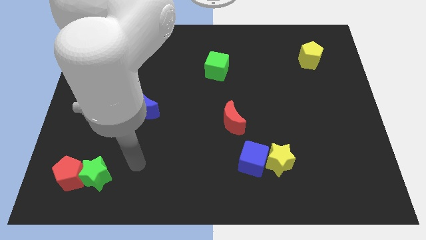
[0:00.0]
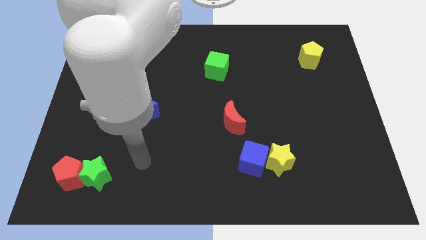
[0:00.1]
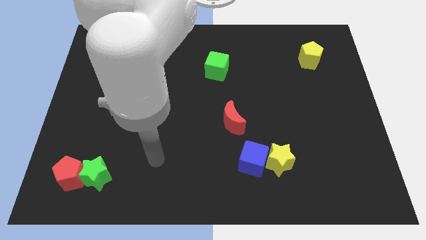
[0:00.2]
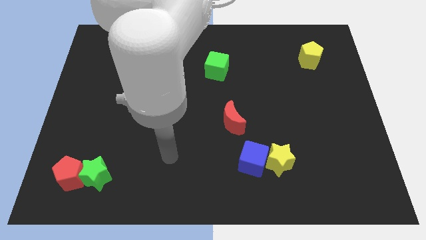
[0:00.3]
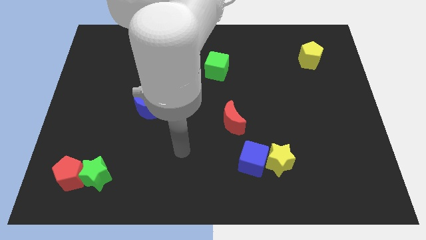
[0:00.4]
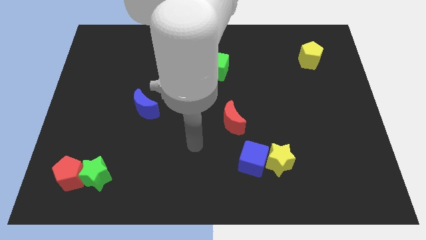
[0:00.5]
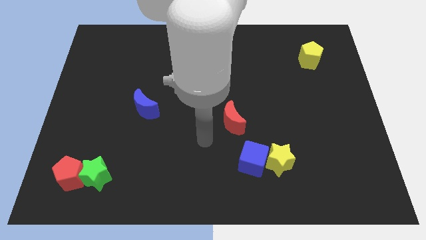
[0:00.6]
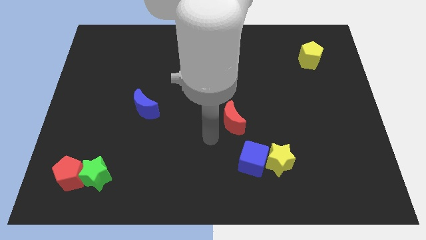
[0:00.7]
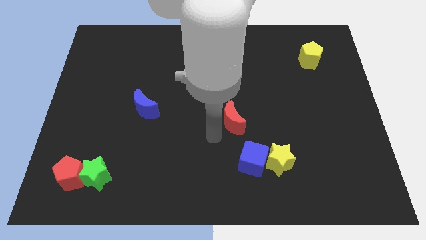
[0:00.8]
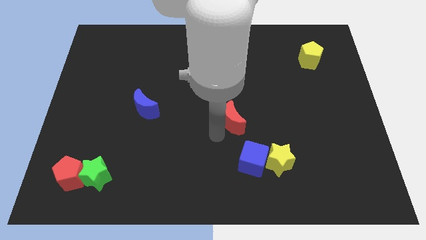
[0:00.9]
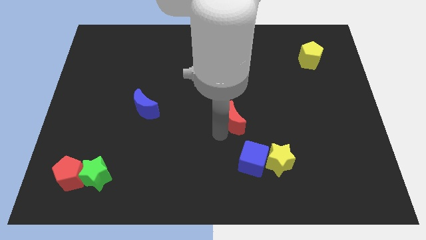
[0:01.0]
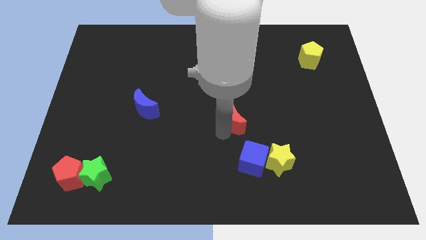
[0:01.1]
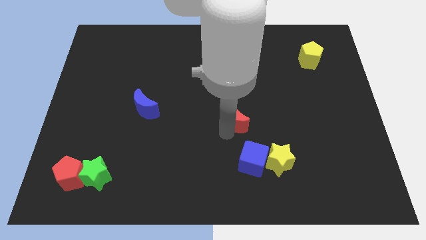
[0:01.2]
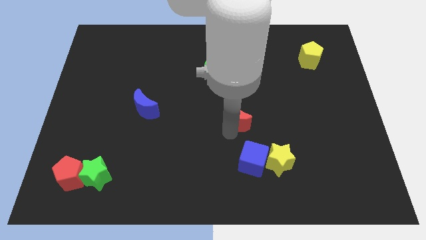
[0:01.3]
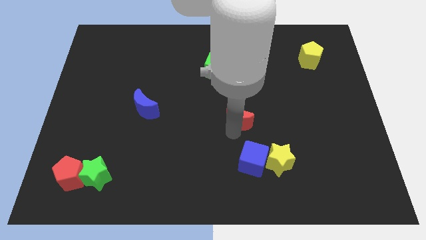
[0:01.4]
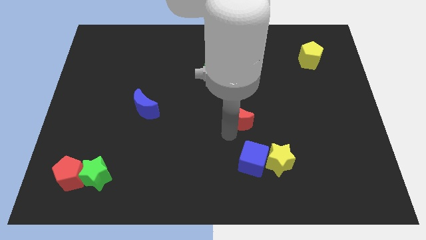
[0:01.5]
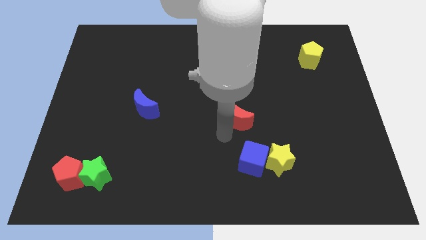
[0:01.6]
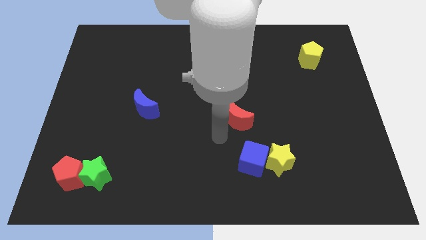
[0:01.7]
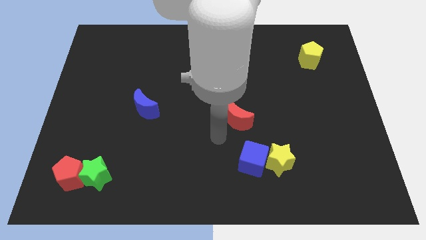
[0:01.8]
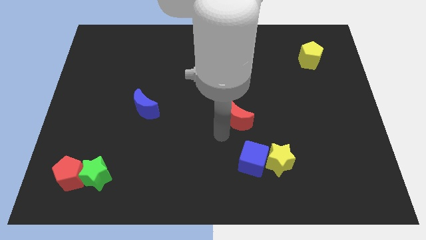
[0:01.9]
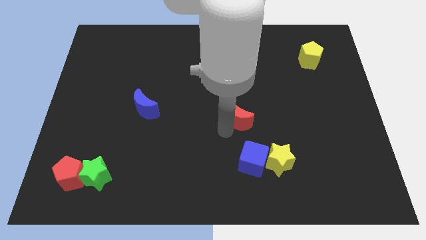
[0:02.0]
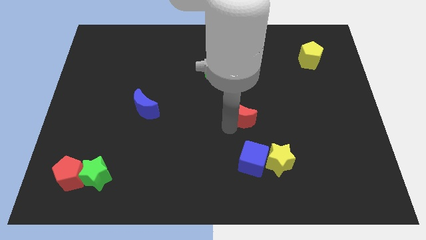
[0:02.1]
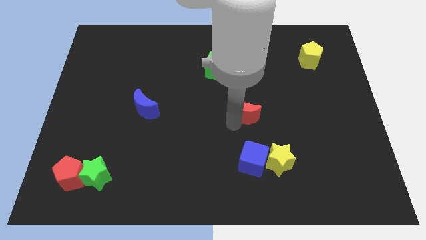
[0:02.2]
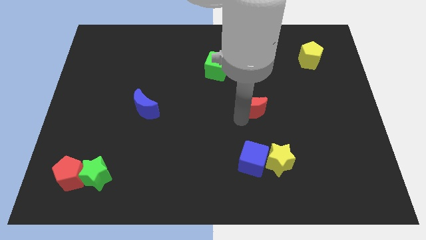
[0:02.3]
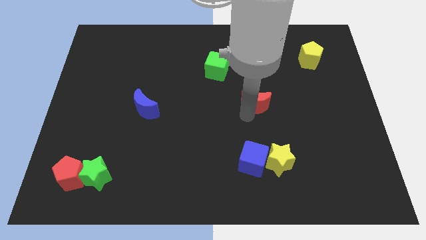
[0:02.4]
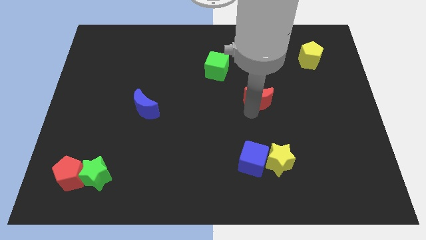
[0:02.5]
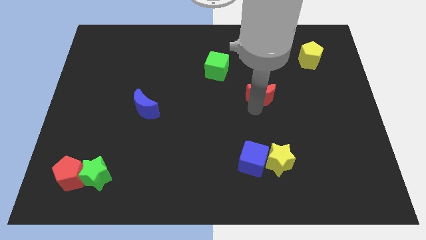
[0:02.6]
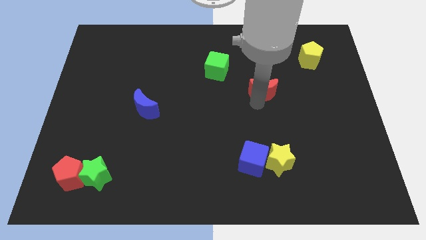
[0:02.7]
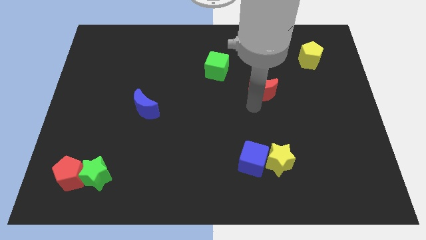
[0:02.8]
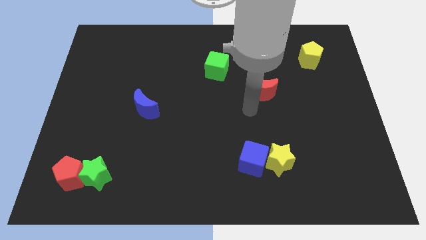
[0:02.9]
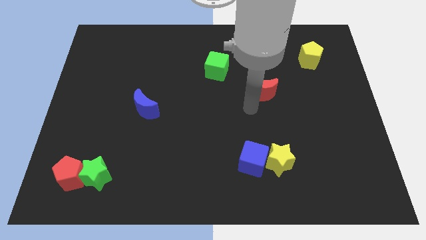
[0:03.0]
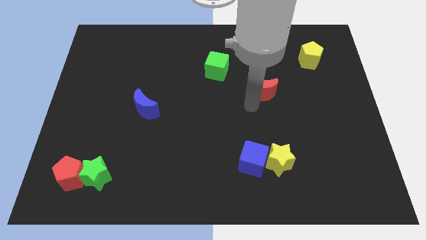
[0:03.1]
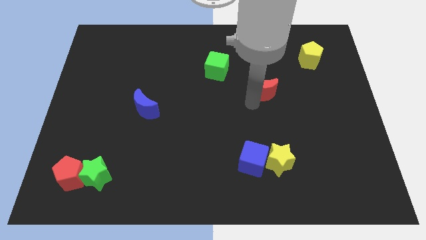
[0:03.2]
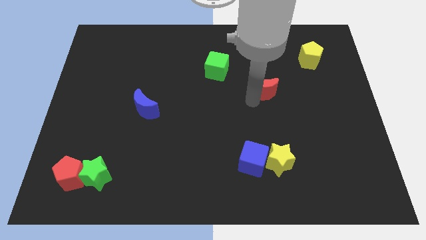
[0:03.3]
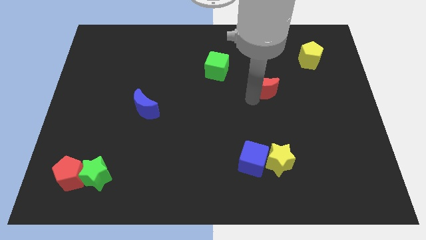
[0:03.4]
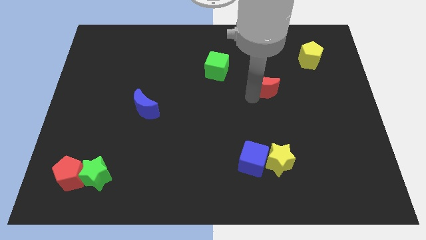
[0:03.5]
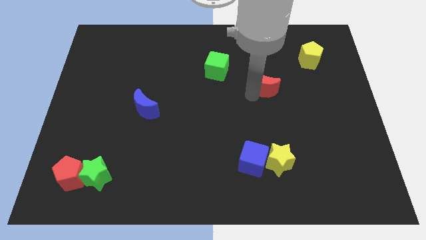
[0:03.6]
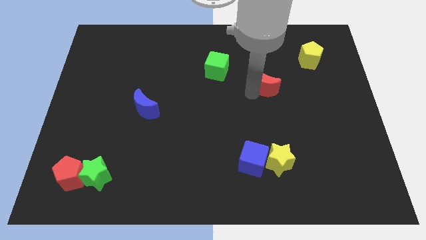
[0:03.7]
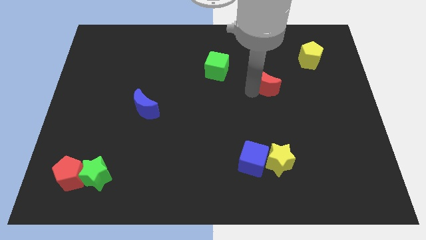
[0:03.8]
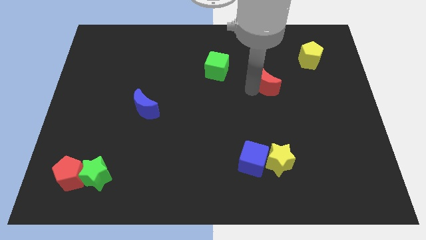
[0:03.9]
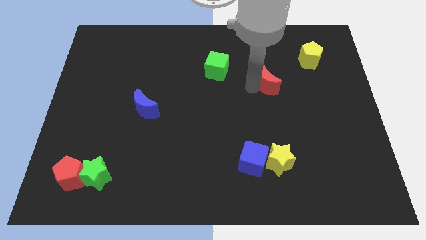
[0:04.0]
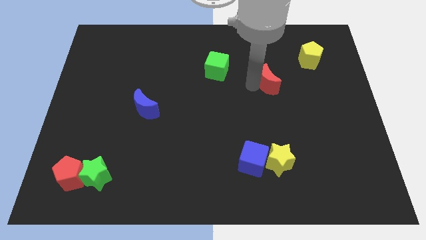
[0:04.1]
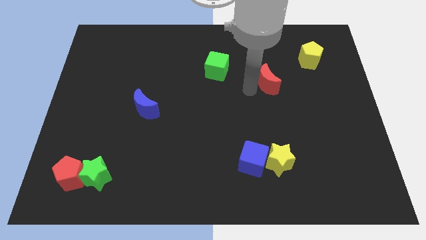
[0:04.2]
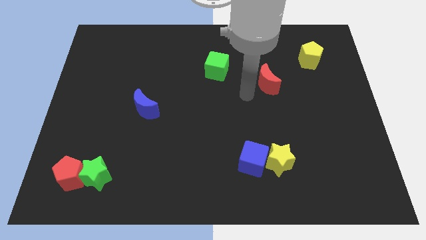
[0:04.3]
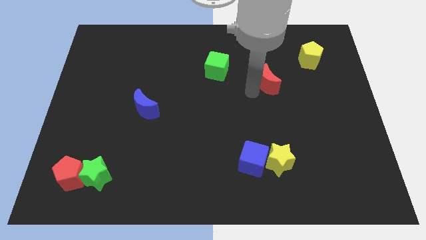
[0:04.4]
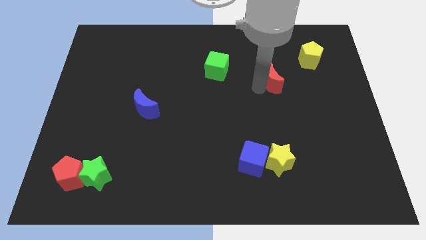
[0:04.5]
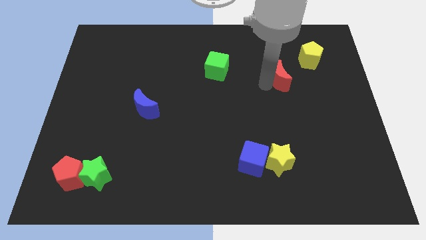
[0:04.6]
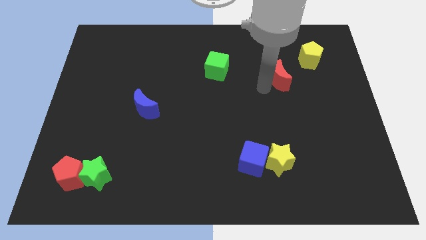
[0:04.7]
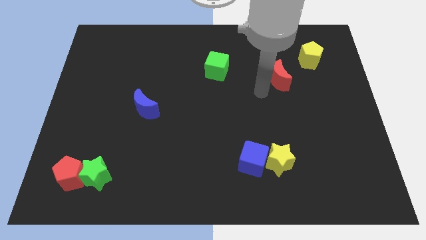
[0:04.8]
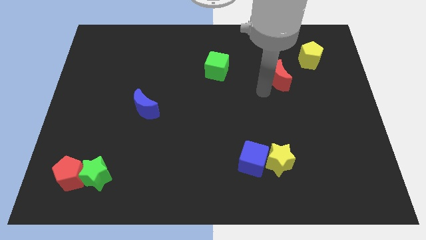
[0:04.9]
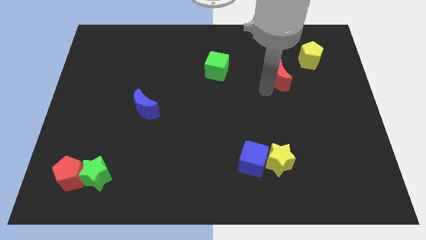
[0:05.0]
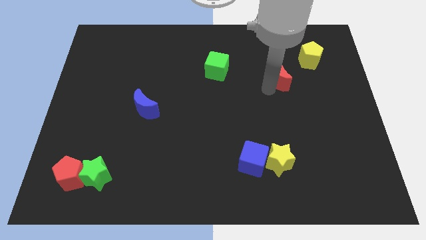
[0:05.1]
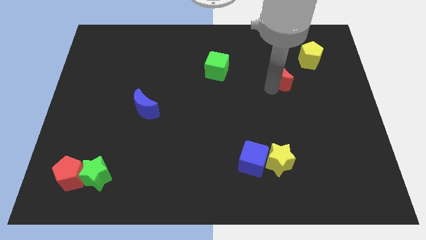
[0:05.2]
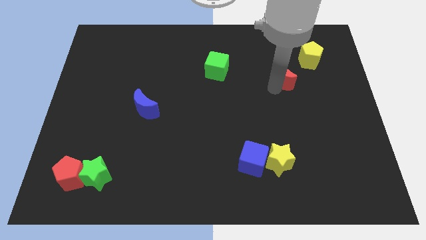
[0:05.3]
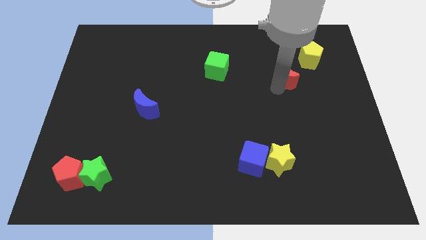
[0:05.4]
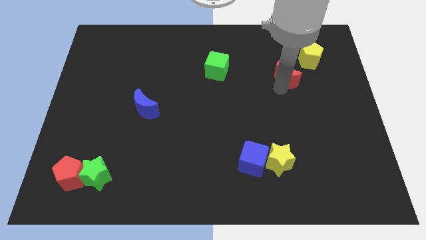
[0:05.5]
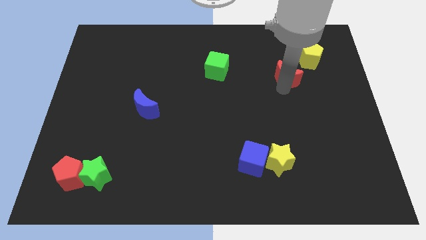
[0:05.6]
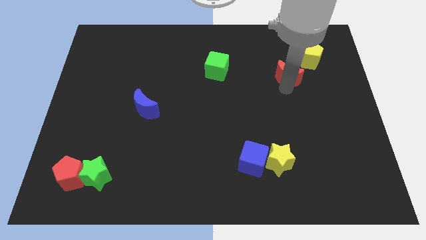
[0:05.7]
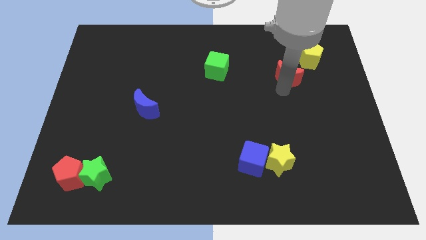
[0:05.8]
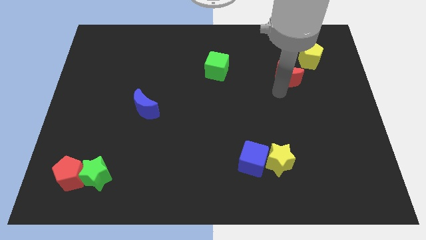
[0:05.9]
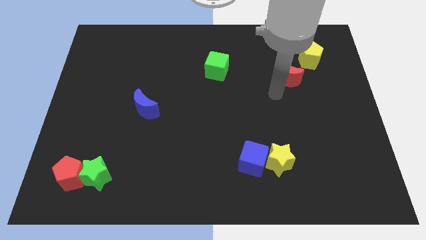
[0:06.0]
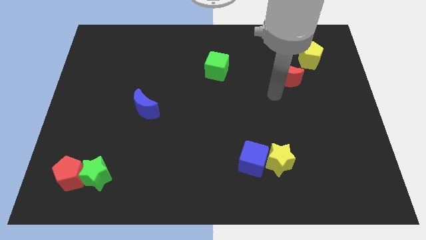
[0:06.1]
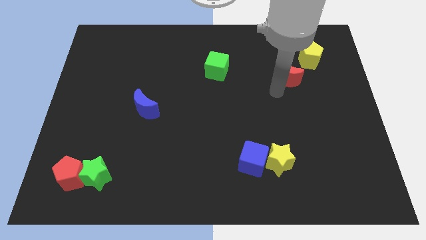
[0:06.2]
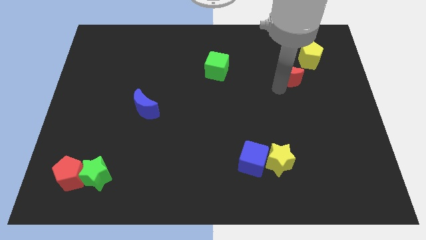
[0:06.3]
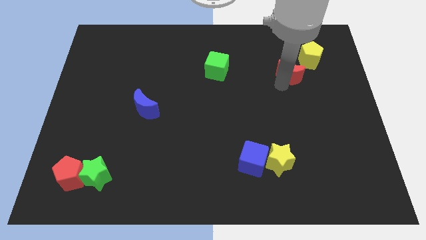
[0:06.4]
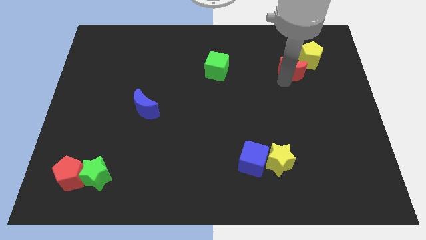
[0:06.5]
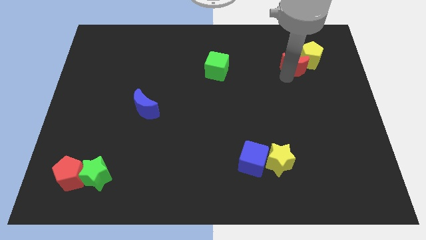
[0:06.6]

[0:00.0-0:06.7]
push the red moon next to the yellow pentagon

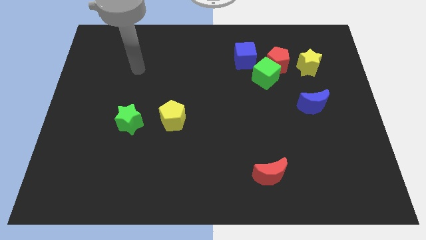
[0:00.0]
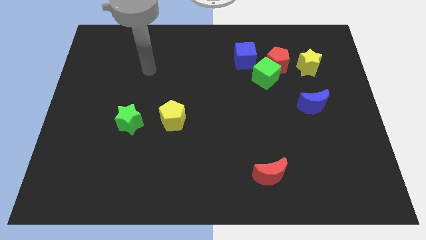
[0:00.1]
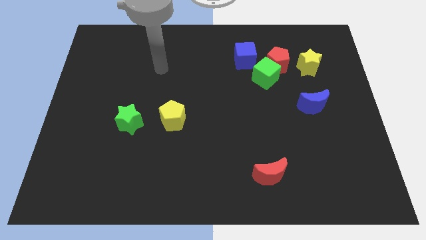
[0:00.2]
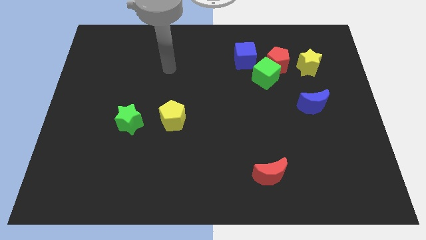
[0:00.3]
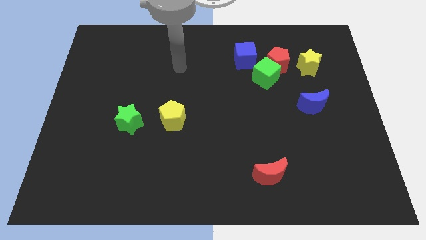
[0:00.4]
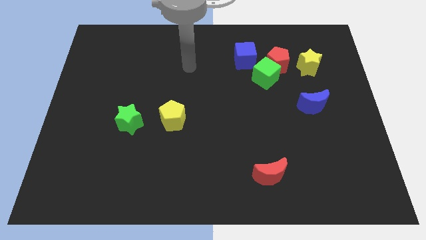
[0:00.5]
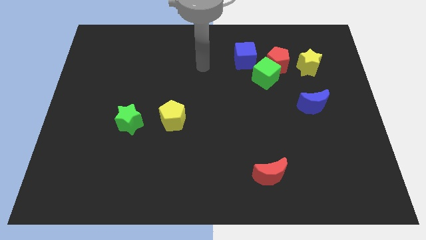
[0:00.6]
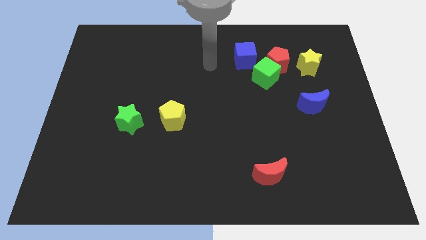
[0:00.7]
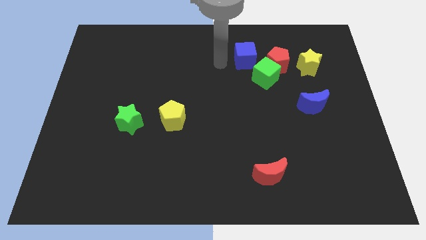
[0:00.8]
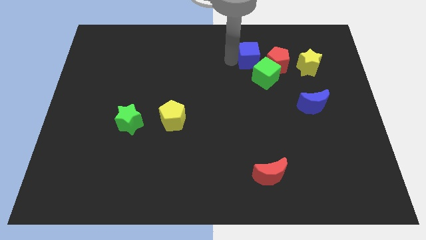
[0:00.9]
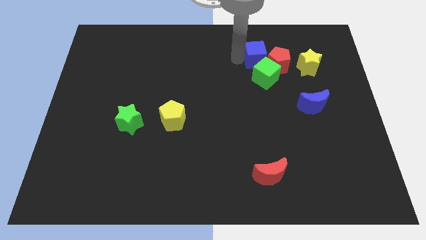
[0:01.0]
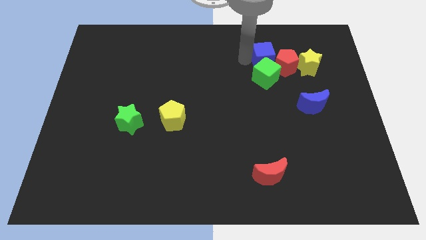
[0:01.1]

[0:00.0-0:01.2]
push the red pentagon close to the yellow star
